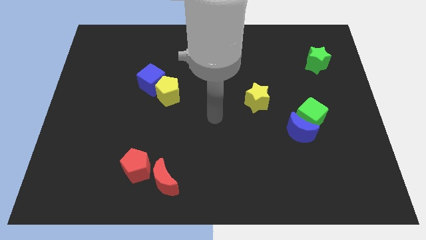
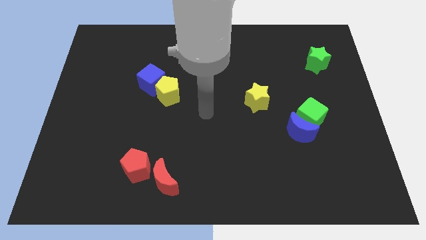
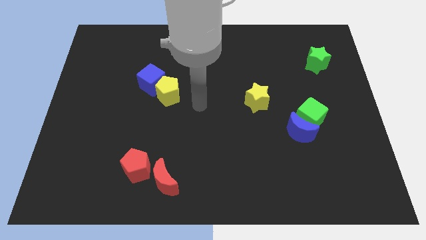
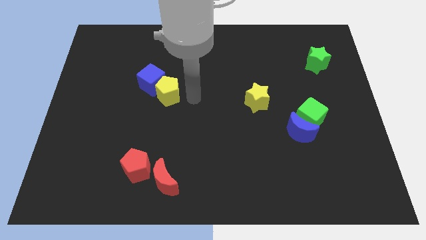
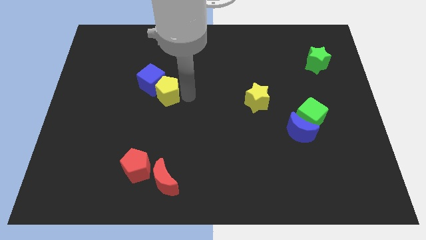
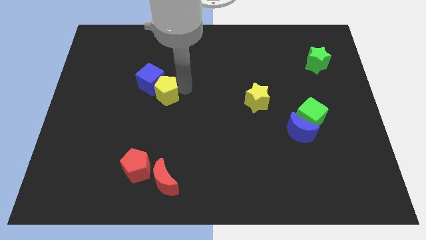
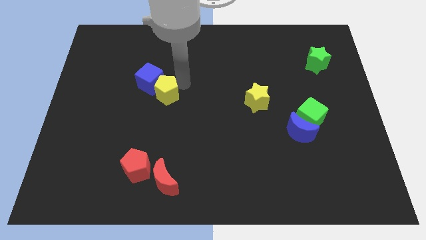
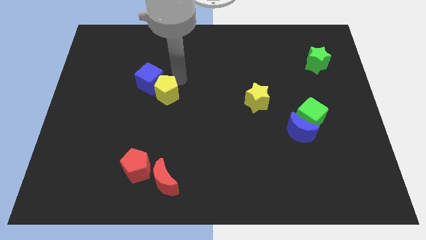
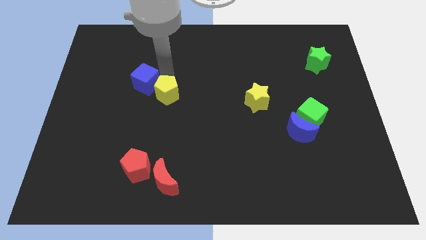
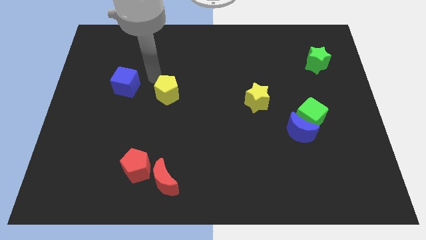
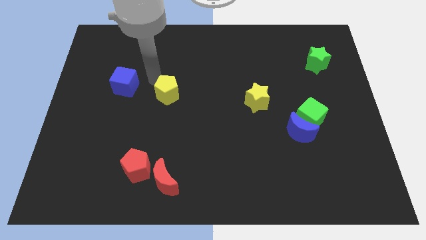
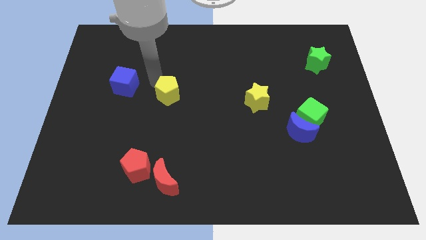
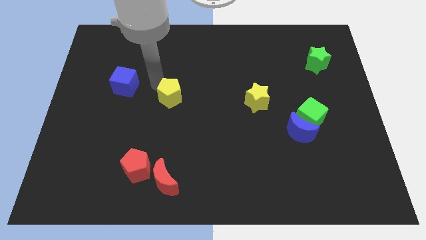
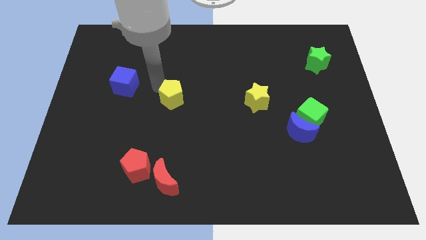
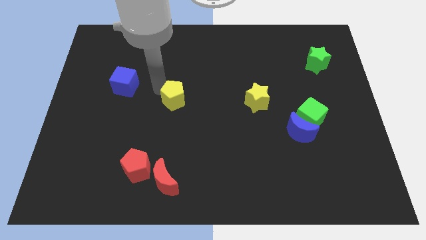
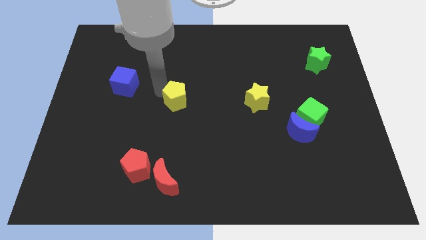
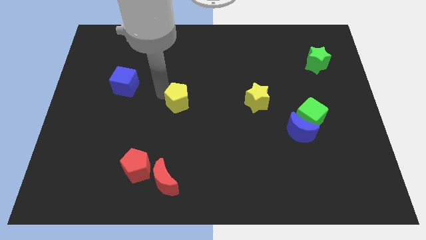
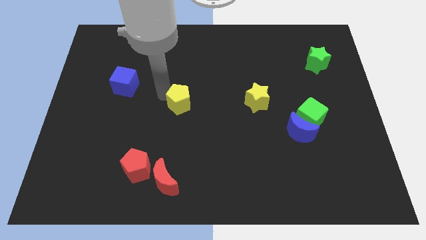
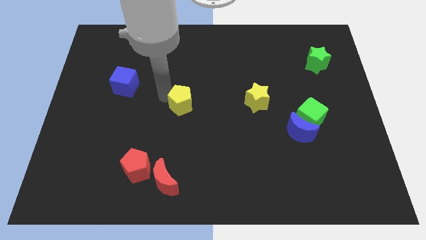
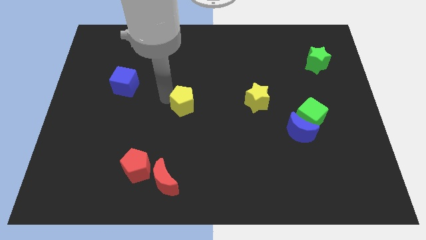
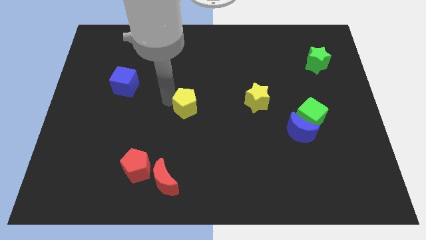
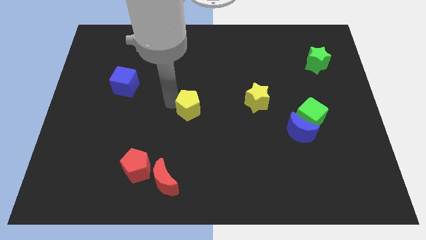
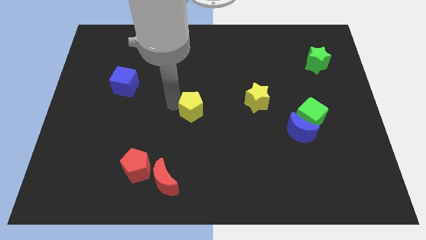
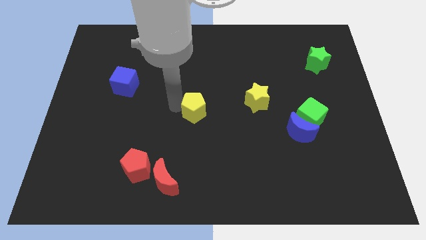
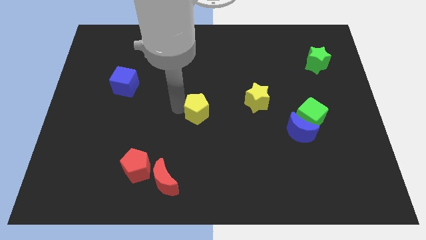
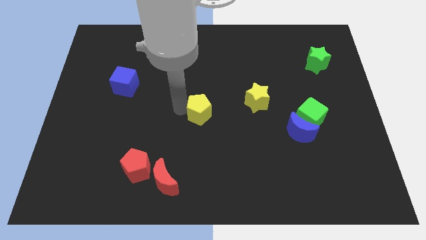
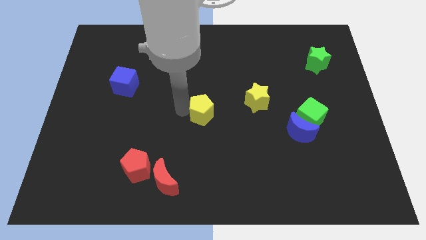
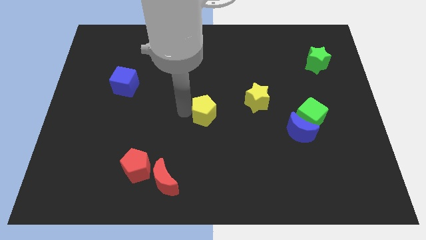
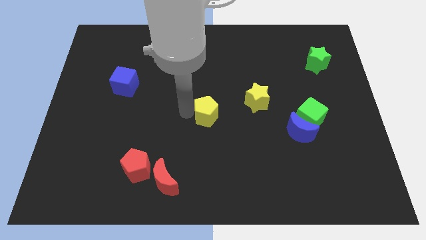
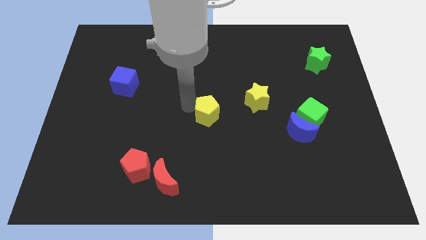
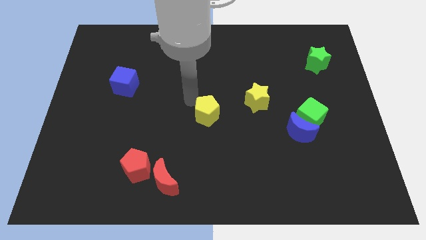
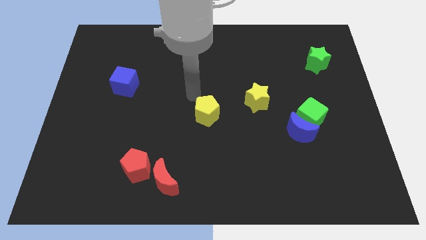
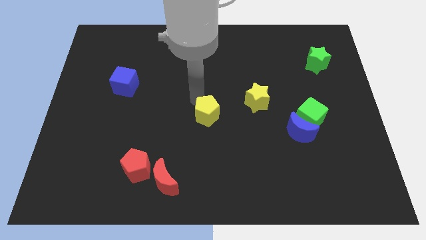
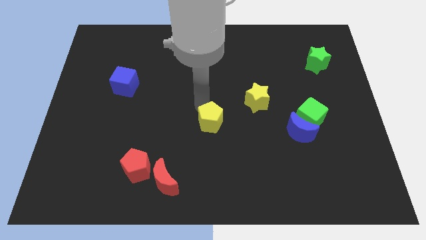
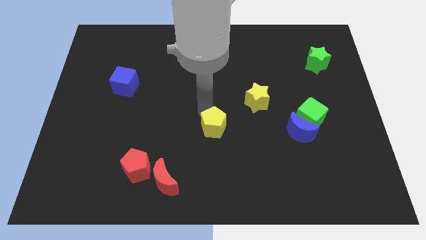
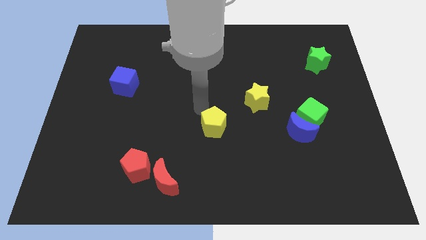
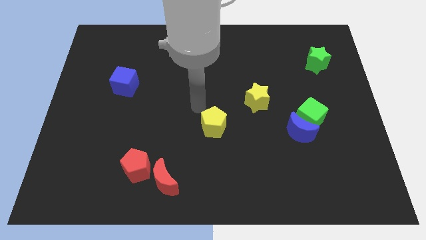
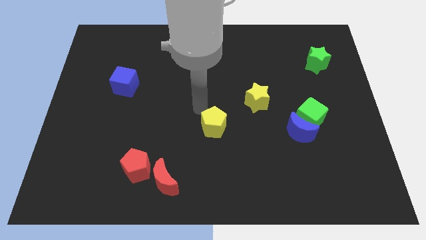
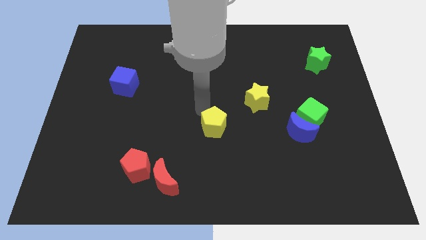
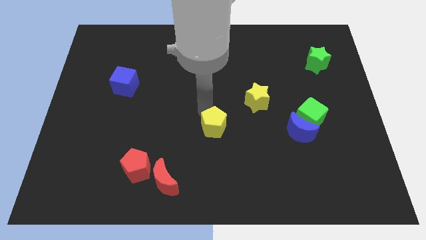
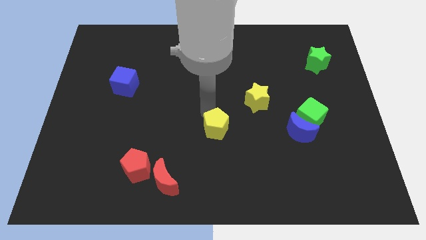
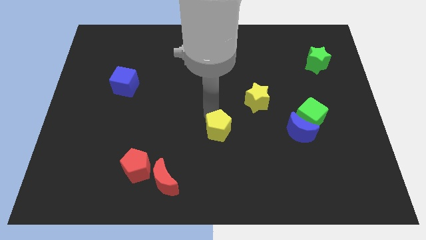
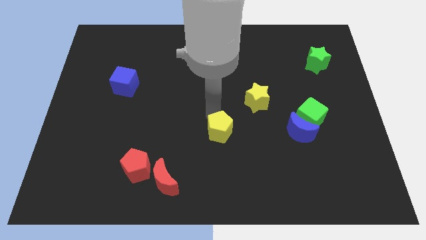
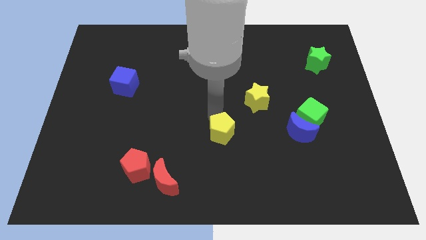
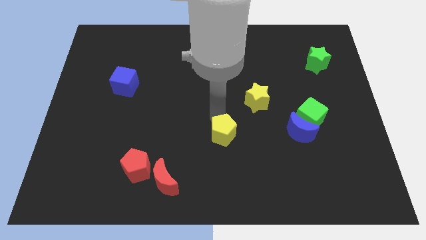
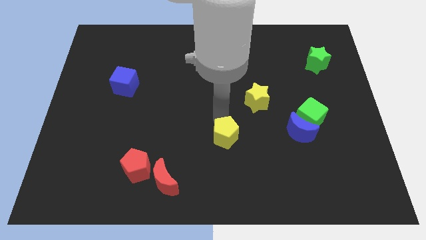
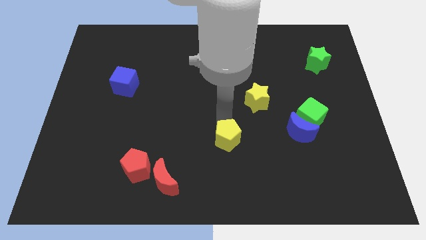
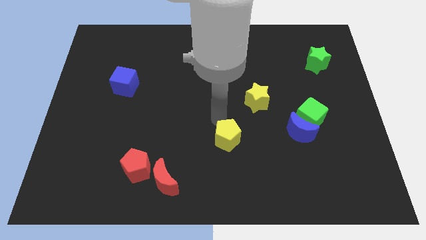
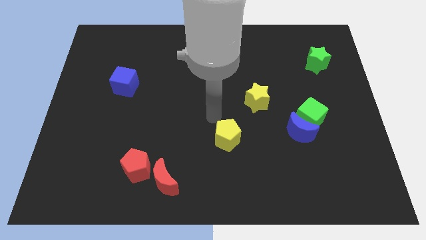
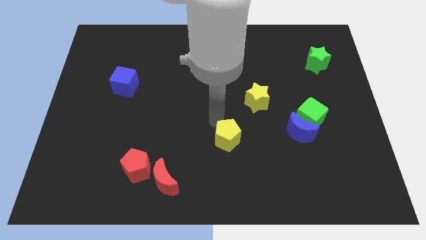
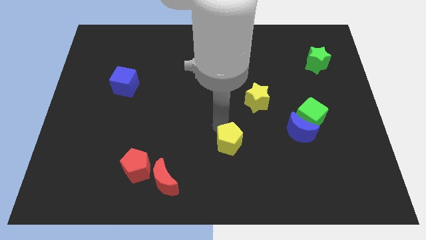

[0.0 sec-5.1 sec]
slide the yellow pentagon downwards and then to the right

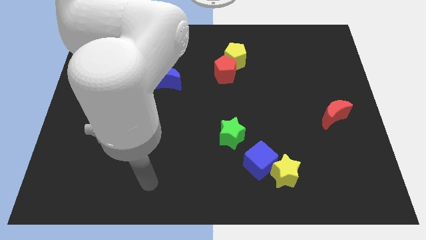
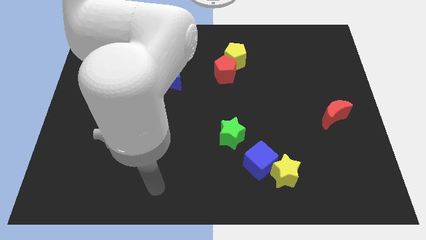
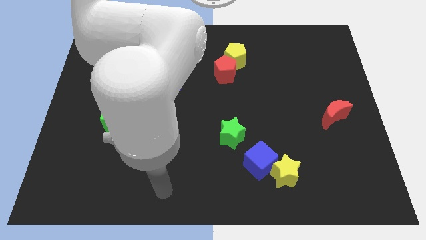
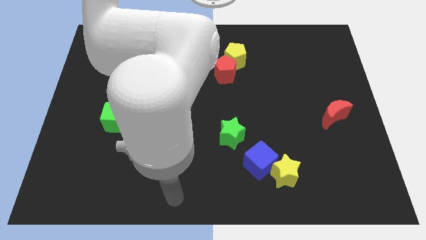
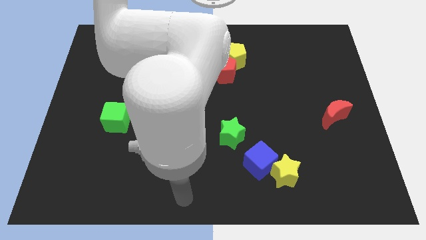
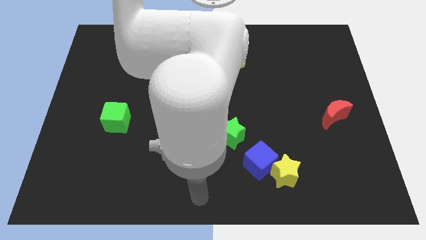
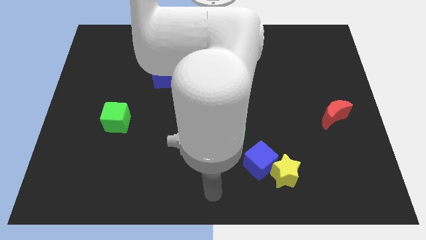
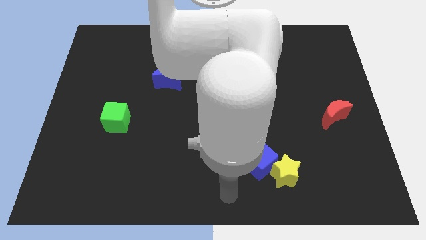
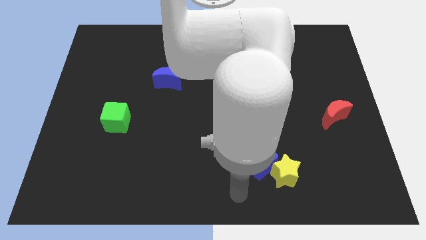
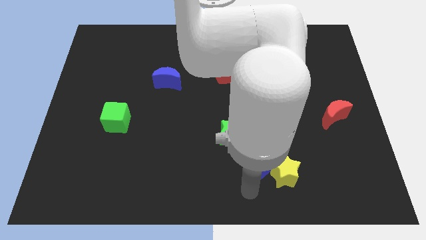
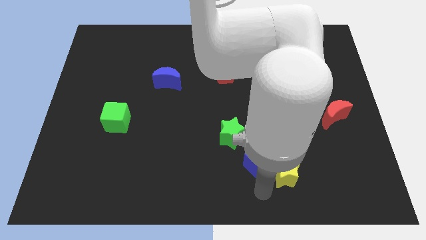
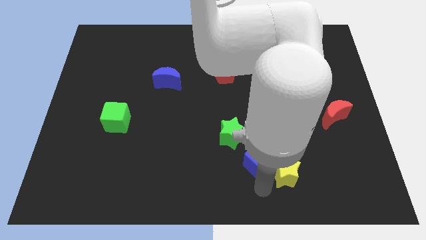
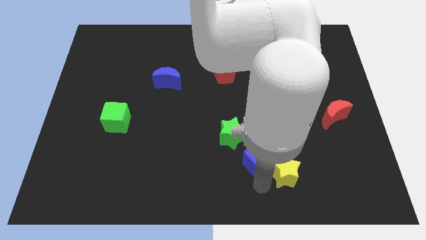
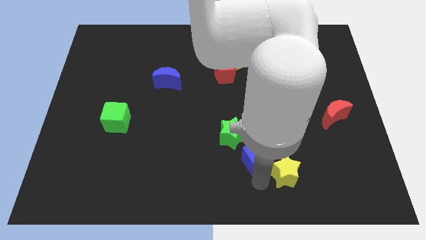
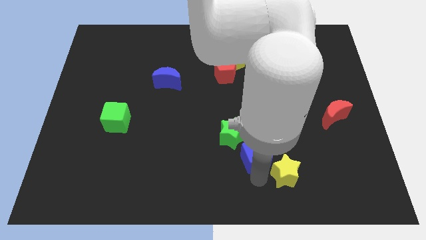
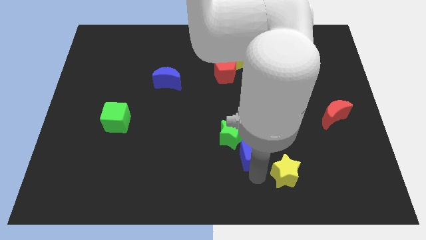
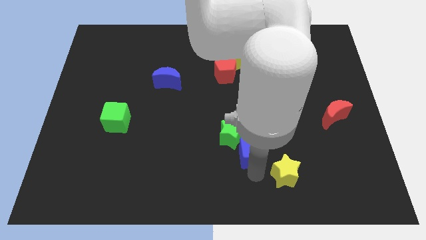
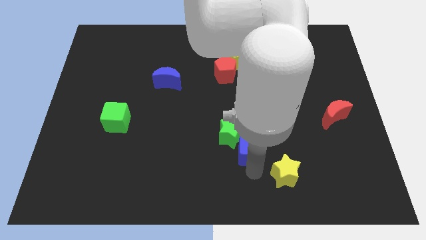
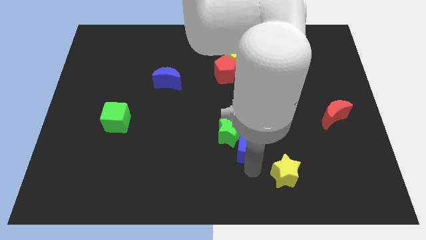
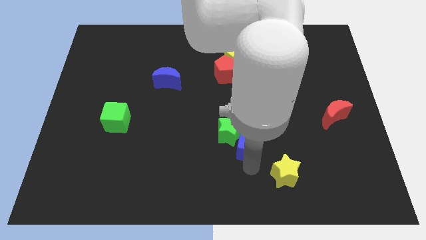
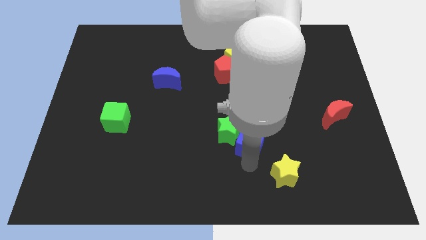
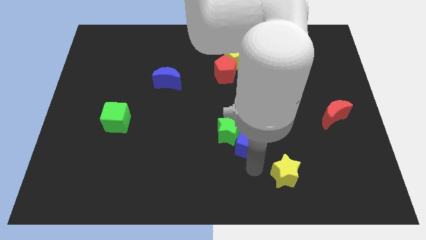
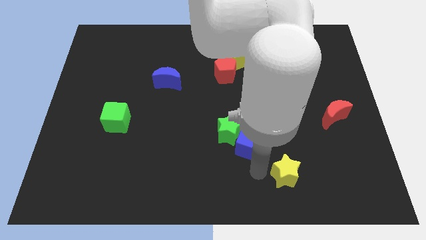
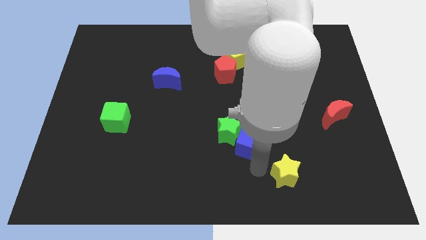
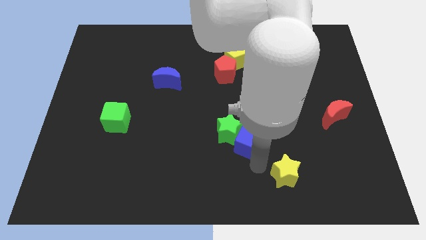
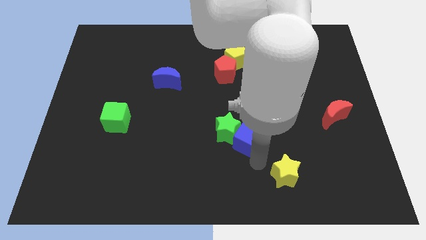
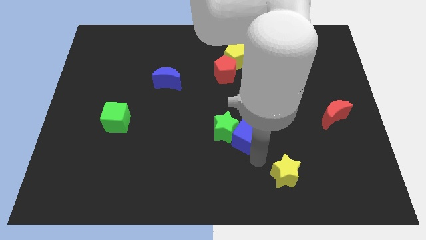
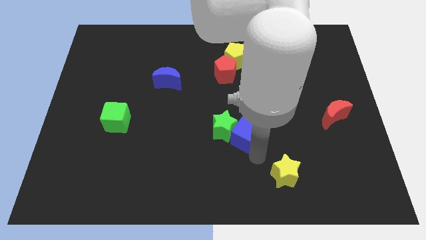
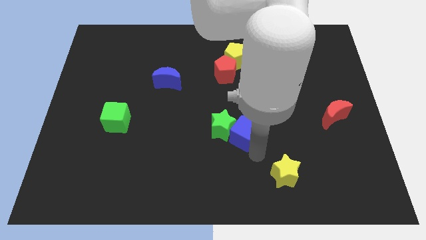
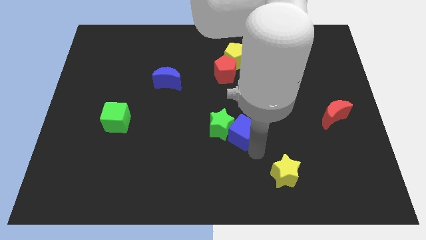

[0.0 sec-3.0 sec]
slightly slide the blue cube diagonally up and to the left

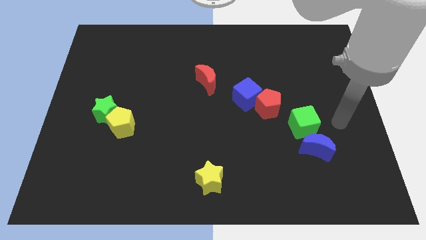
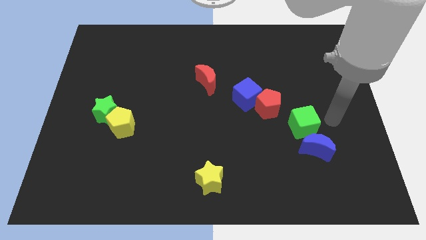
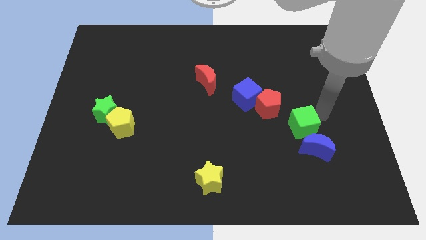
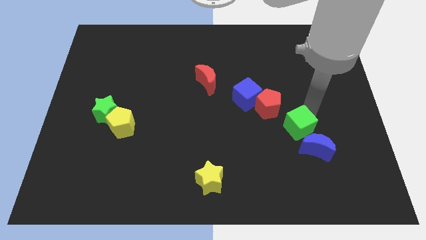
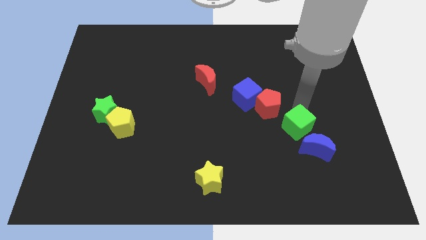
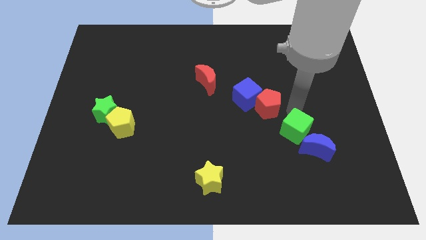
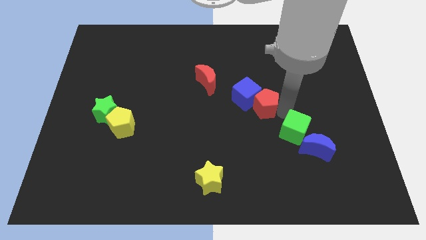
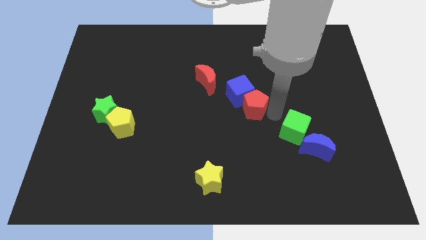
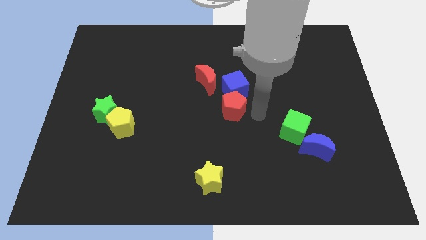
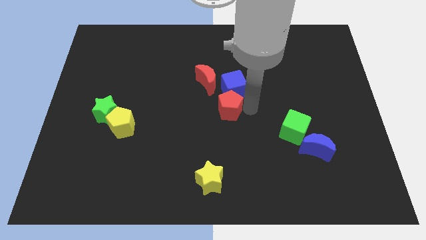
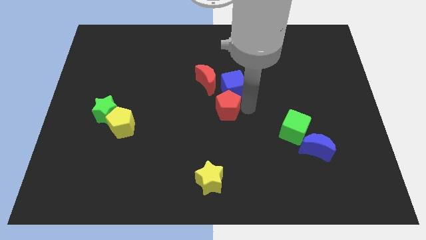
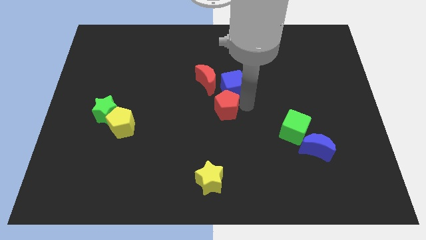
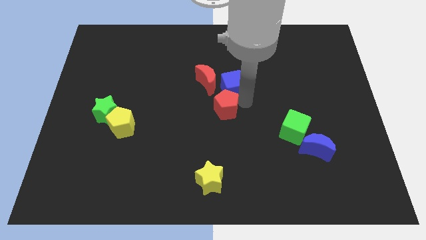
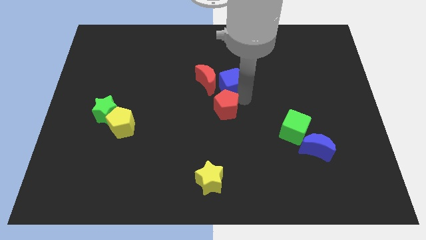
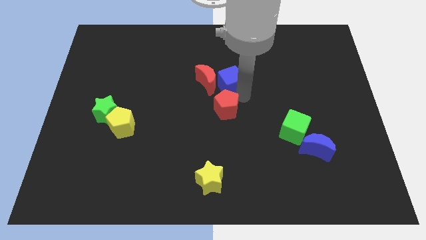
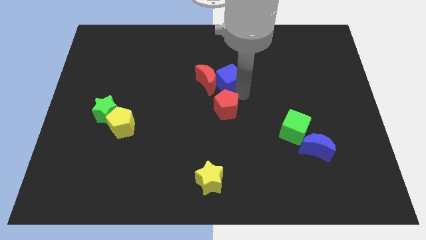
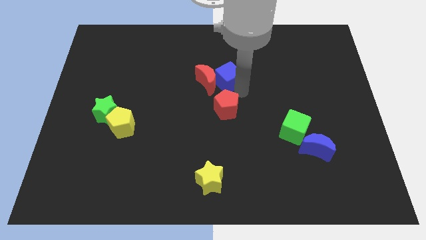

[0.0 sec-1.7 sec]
slightly push the blue cube up and then to the left
